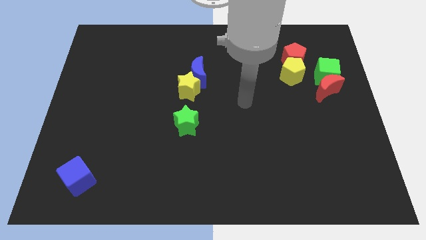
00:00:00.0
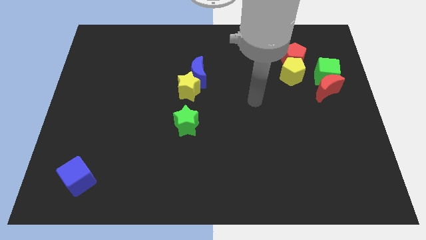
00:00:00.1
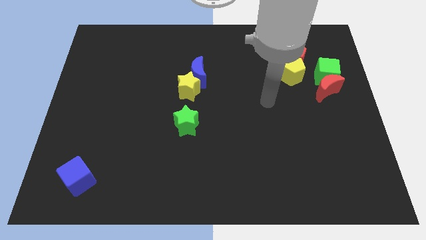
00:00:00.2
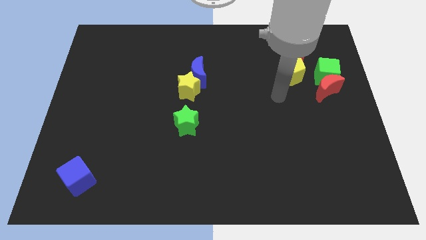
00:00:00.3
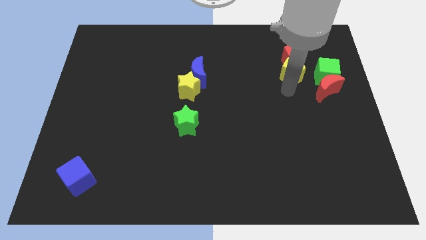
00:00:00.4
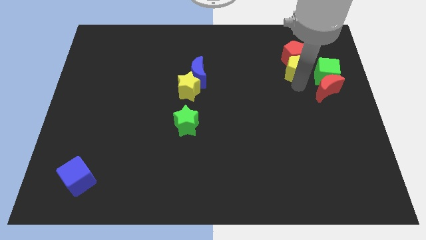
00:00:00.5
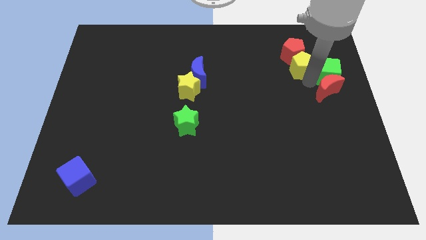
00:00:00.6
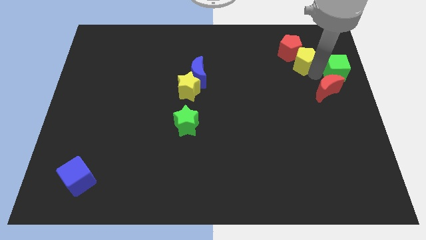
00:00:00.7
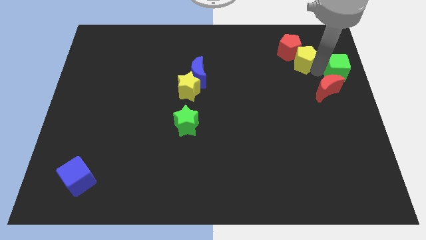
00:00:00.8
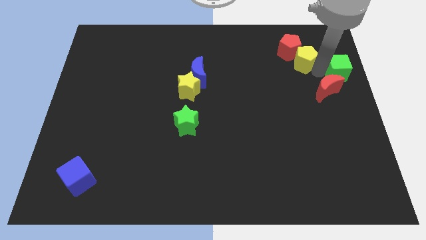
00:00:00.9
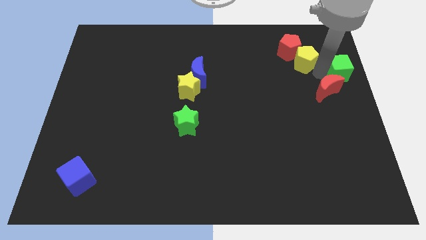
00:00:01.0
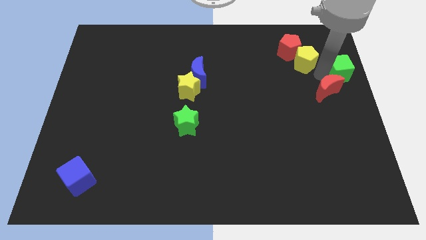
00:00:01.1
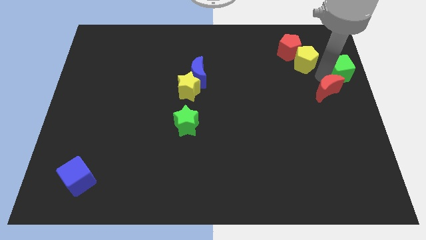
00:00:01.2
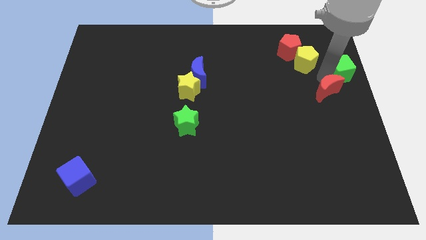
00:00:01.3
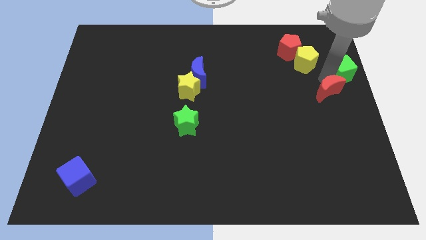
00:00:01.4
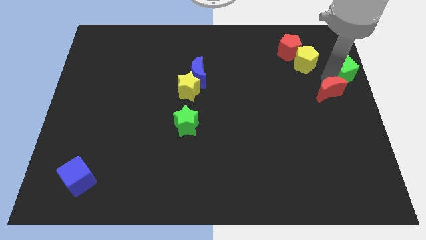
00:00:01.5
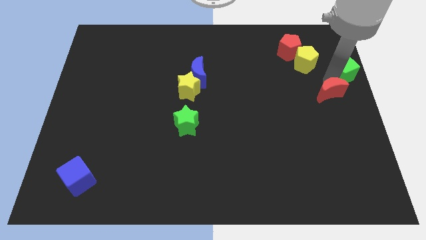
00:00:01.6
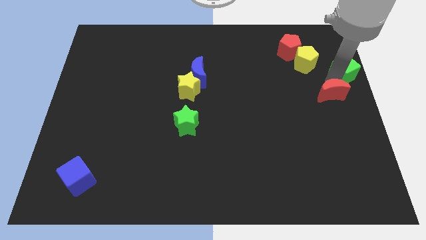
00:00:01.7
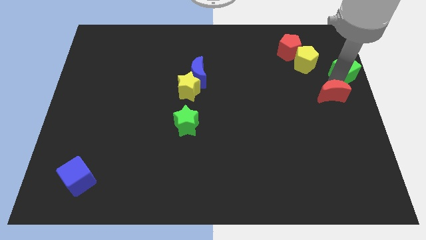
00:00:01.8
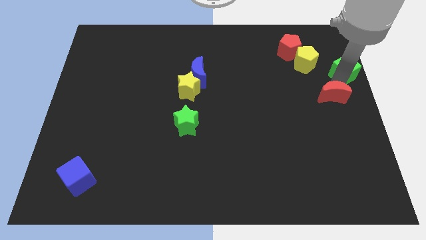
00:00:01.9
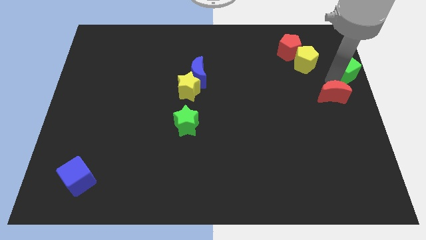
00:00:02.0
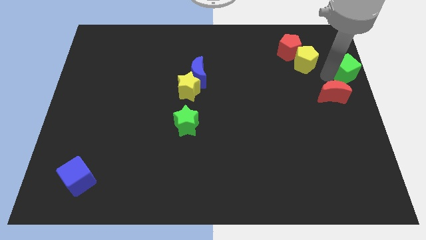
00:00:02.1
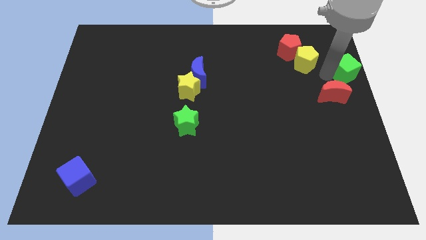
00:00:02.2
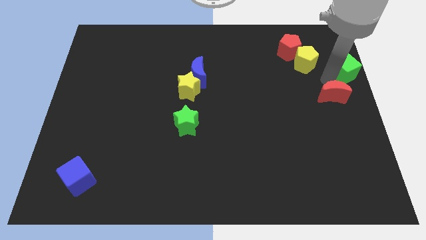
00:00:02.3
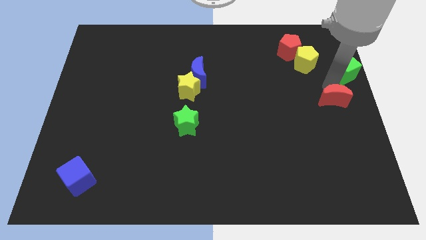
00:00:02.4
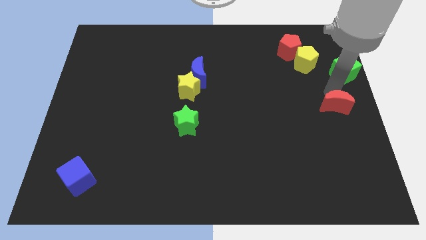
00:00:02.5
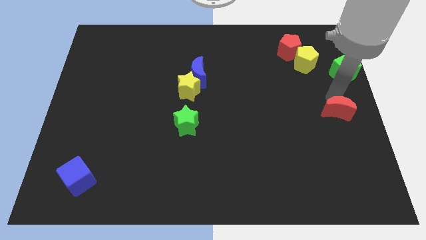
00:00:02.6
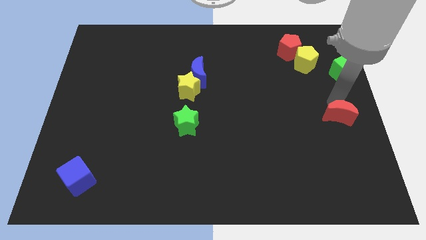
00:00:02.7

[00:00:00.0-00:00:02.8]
slightly move the red moon downwards

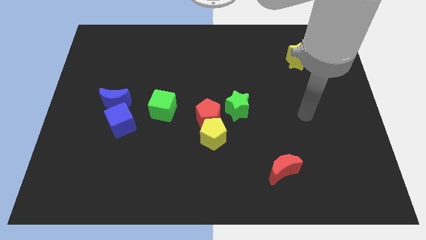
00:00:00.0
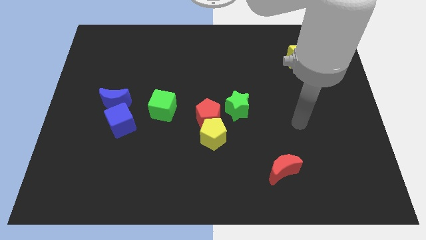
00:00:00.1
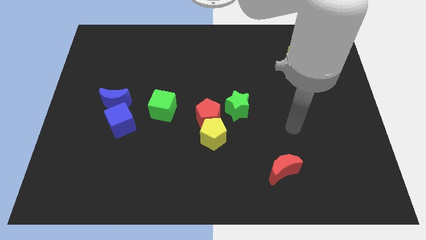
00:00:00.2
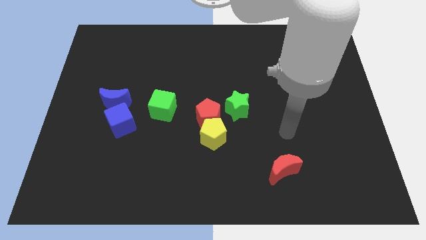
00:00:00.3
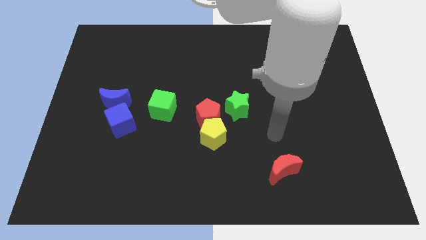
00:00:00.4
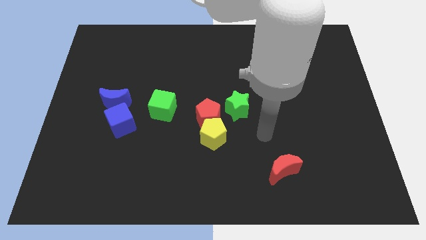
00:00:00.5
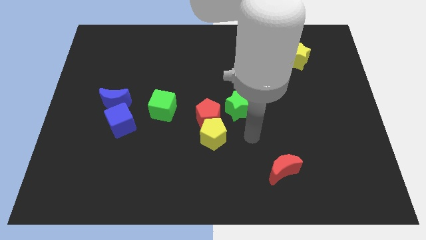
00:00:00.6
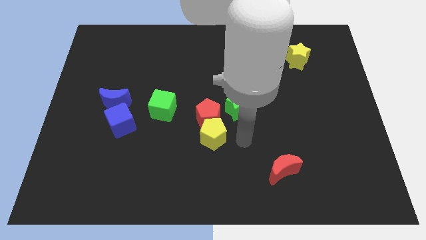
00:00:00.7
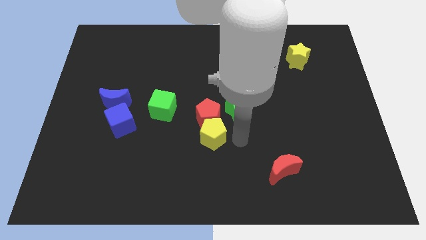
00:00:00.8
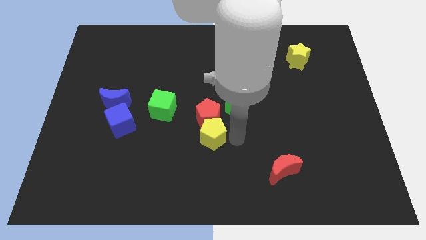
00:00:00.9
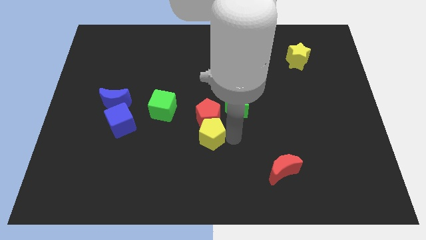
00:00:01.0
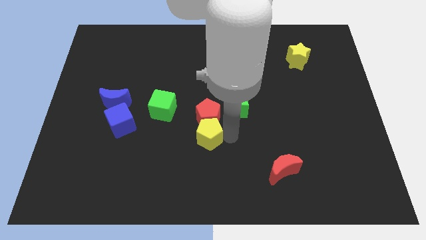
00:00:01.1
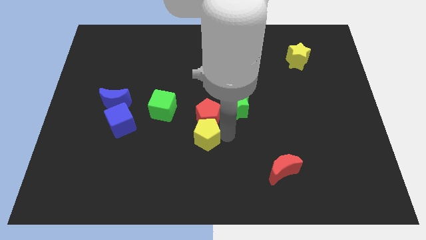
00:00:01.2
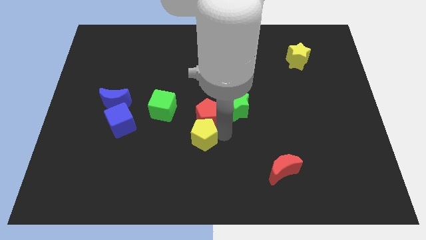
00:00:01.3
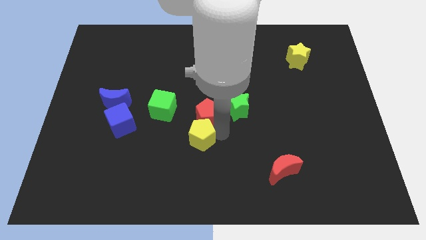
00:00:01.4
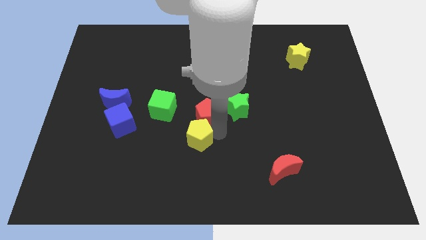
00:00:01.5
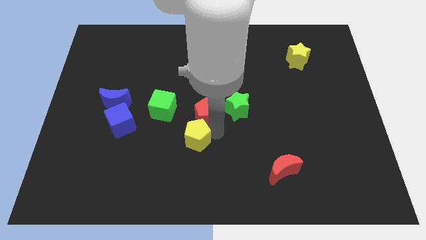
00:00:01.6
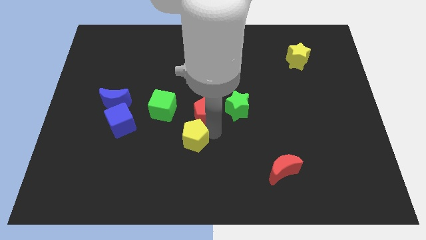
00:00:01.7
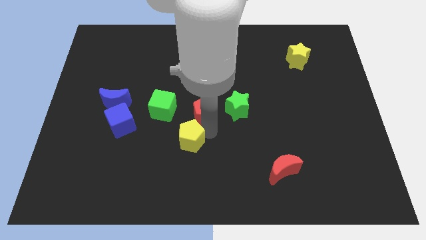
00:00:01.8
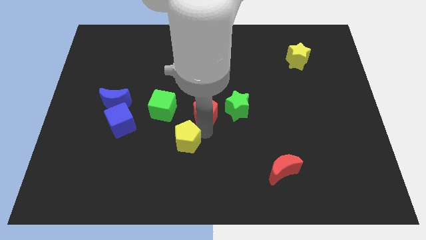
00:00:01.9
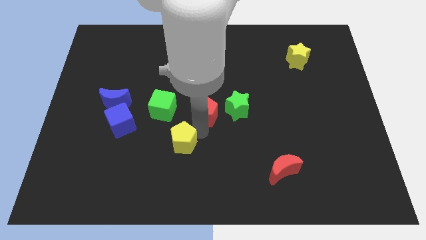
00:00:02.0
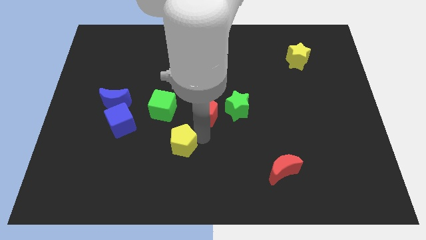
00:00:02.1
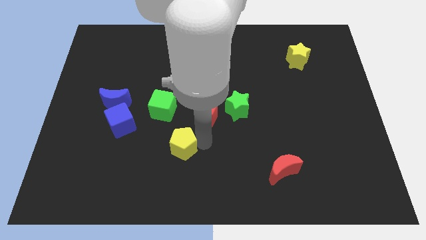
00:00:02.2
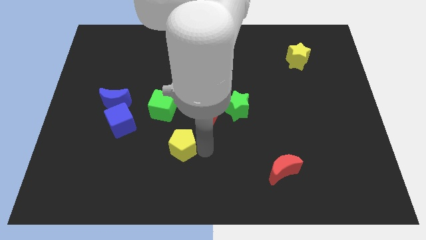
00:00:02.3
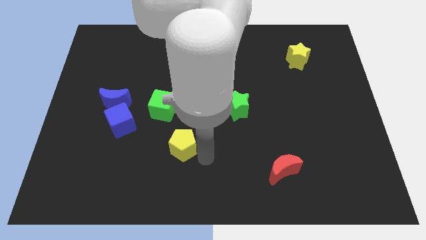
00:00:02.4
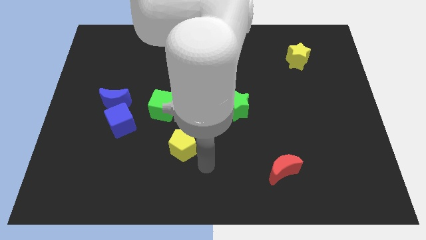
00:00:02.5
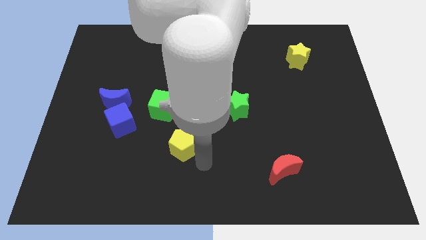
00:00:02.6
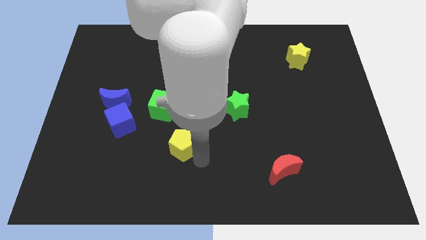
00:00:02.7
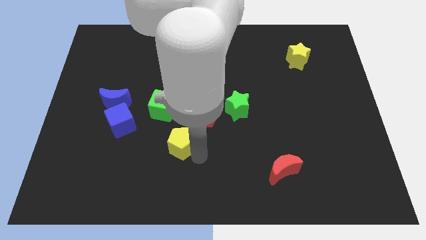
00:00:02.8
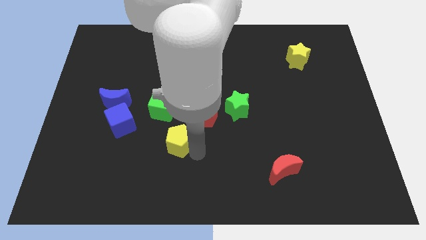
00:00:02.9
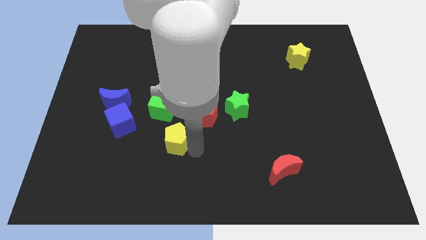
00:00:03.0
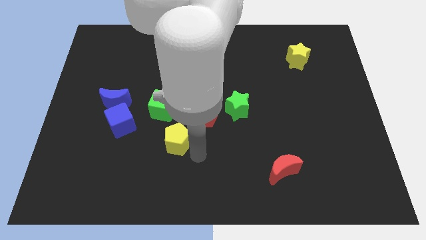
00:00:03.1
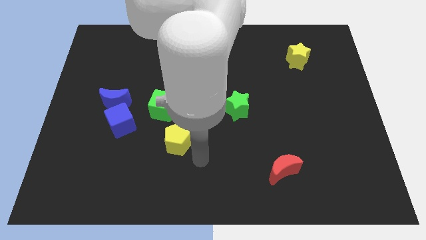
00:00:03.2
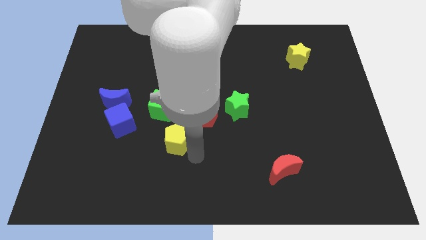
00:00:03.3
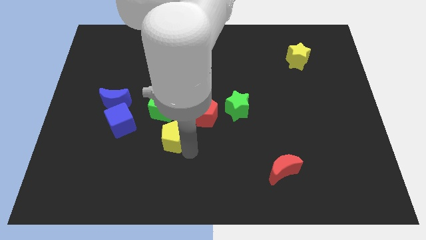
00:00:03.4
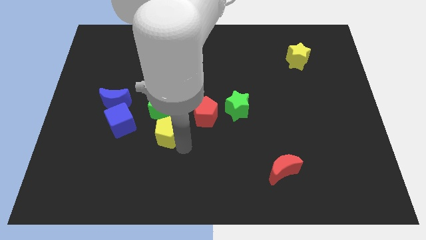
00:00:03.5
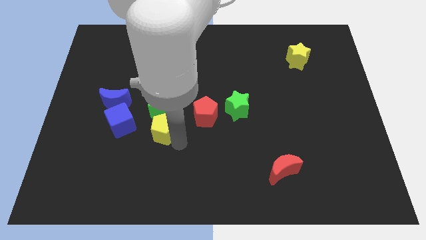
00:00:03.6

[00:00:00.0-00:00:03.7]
slightly slide the yellow pentagon diagonally upwards and to the left

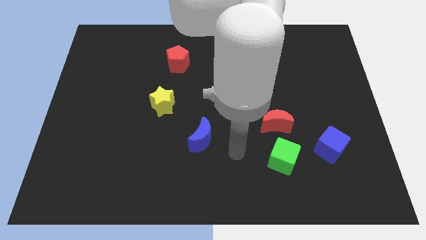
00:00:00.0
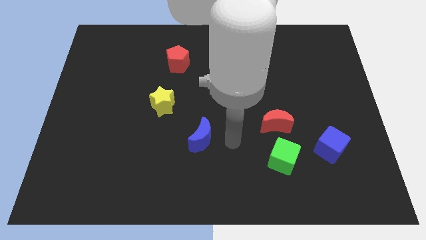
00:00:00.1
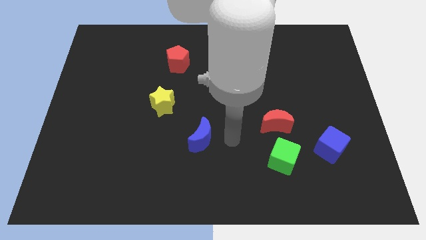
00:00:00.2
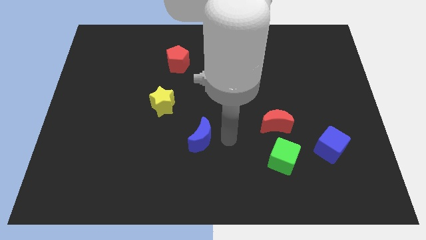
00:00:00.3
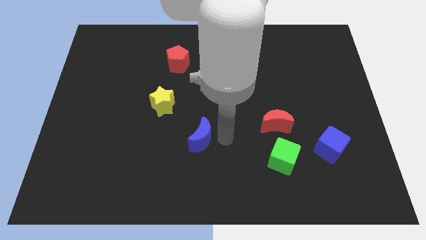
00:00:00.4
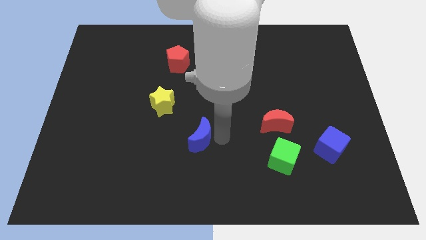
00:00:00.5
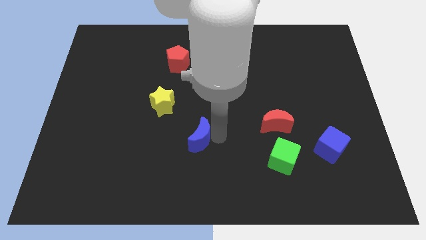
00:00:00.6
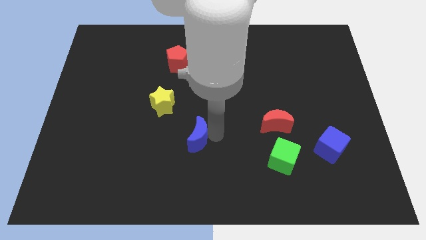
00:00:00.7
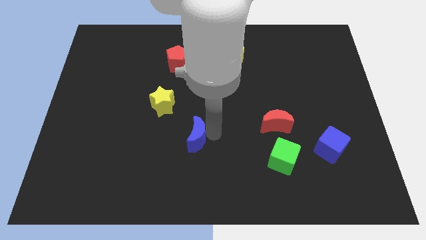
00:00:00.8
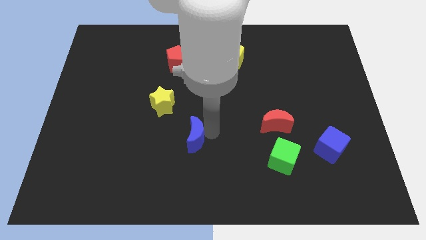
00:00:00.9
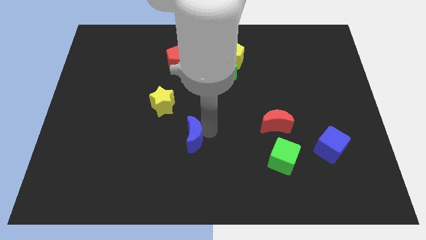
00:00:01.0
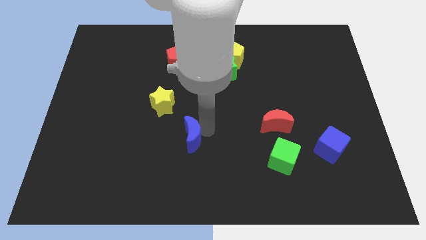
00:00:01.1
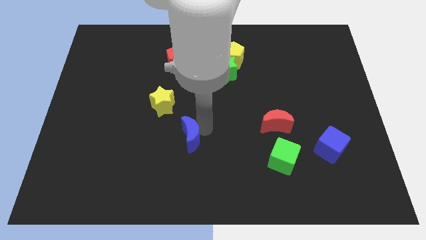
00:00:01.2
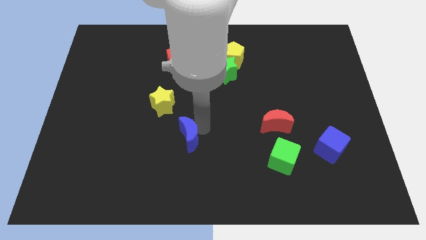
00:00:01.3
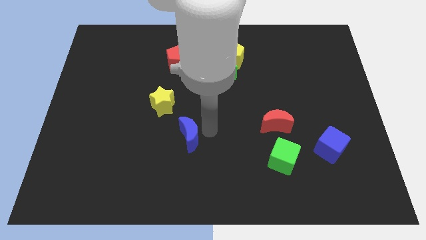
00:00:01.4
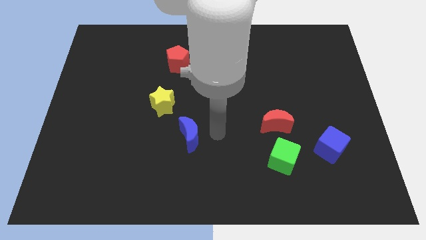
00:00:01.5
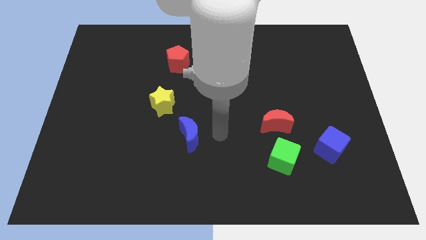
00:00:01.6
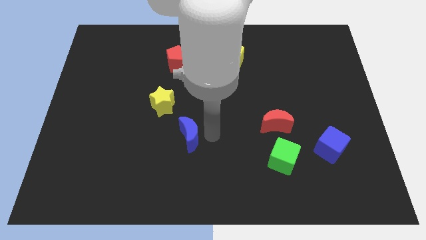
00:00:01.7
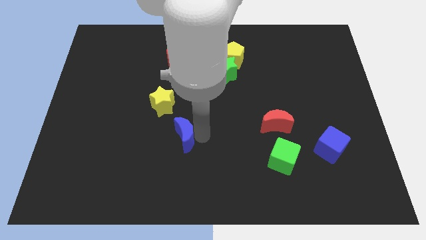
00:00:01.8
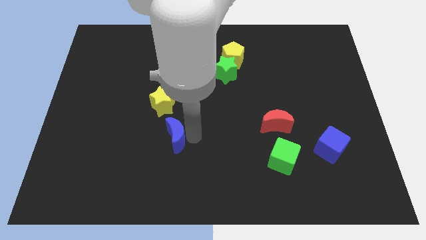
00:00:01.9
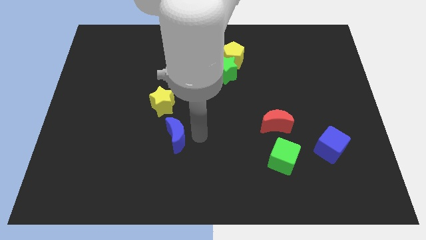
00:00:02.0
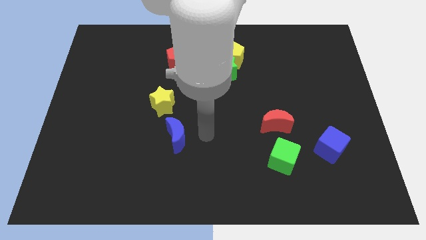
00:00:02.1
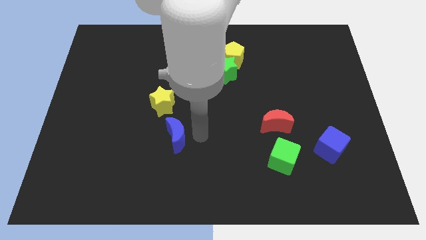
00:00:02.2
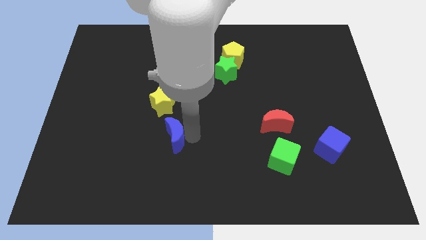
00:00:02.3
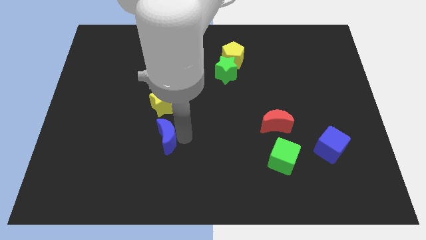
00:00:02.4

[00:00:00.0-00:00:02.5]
slightly push the blue moon left
